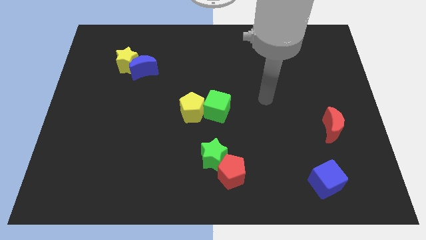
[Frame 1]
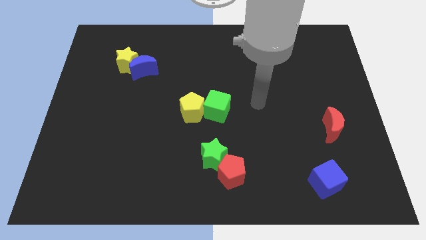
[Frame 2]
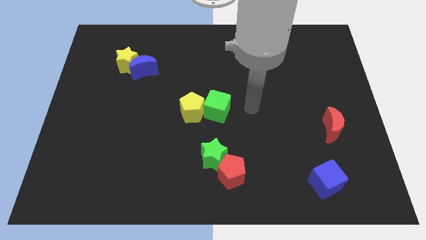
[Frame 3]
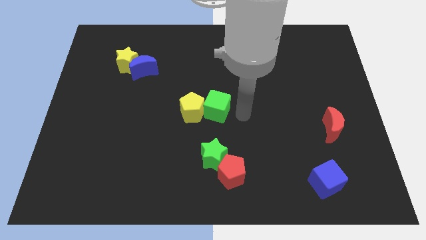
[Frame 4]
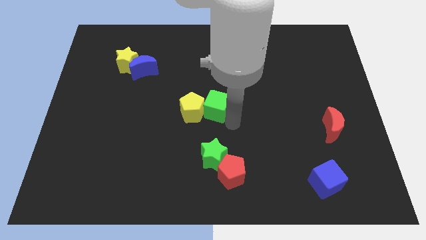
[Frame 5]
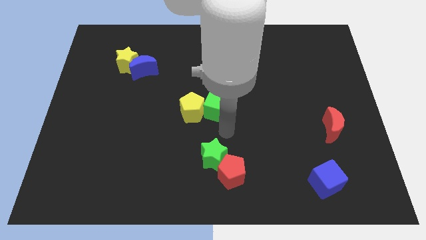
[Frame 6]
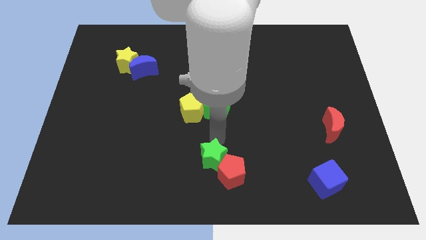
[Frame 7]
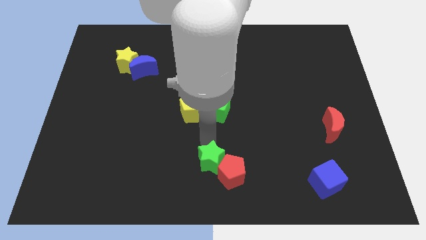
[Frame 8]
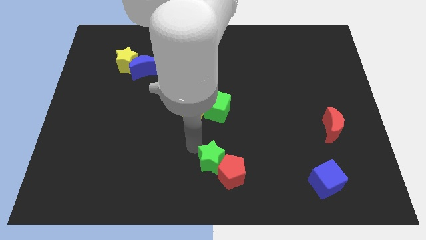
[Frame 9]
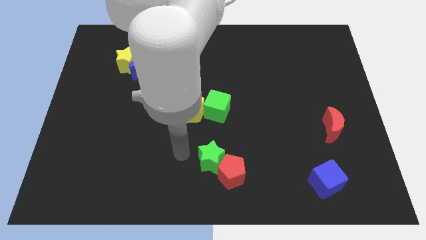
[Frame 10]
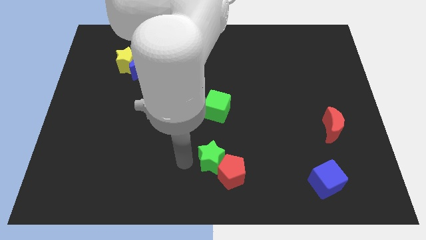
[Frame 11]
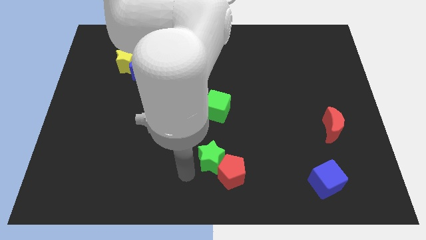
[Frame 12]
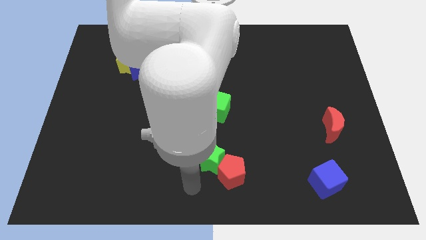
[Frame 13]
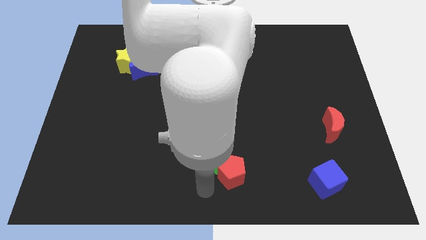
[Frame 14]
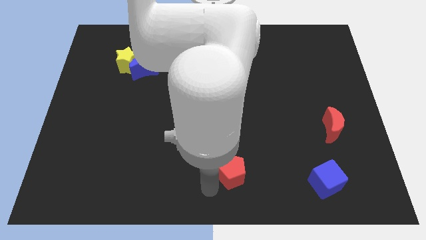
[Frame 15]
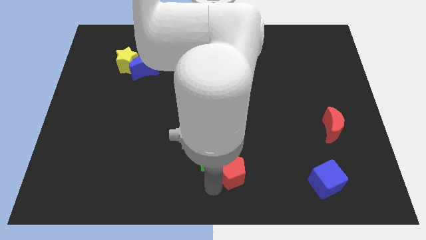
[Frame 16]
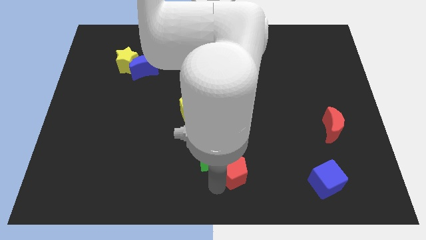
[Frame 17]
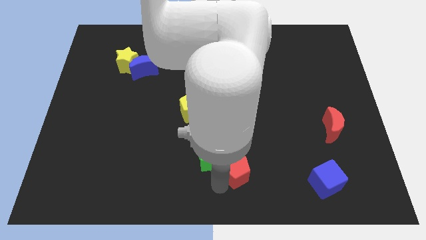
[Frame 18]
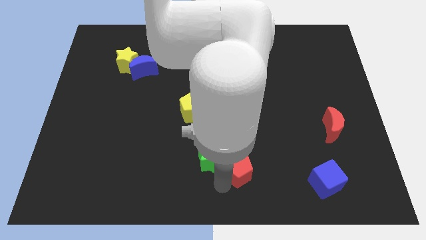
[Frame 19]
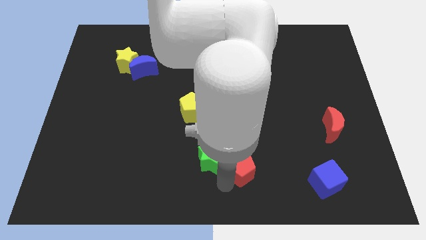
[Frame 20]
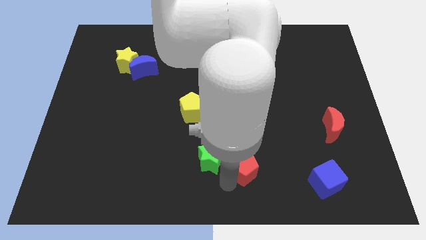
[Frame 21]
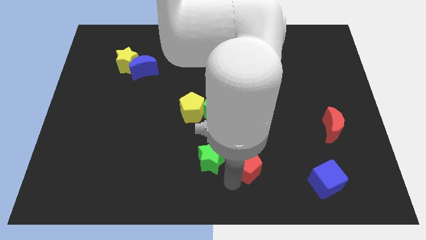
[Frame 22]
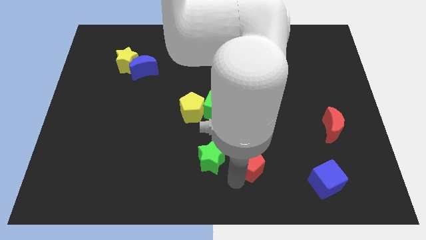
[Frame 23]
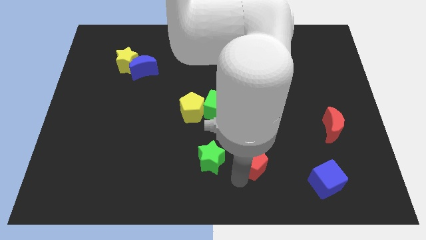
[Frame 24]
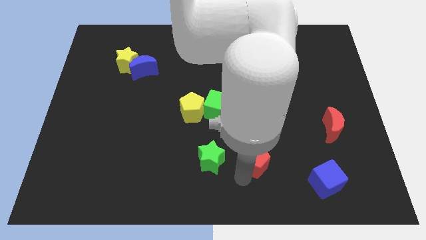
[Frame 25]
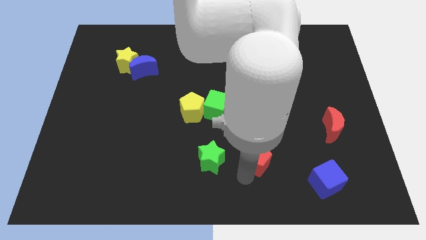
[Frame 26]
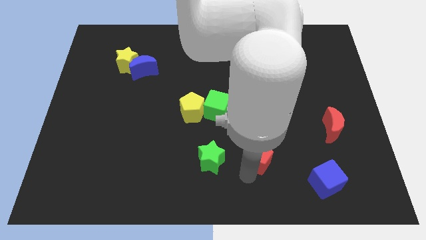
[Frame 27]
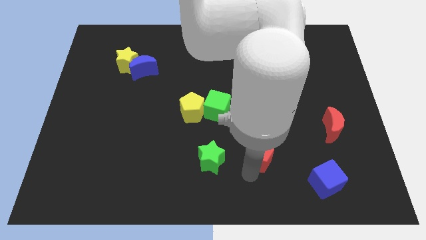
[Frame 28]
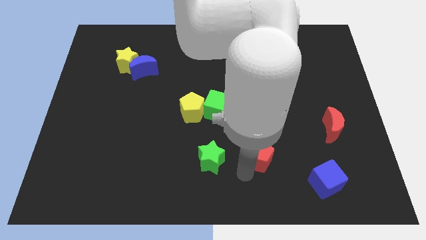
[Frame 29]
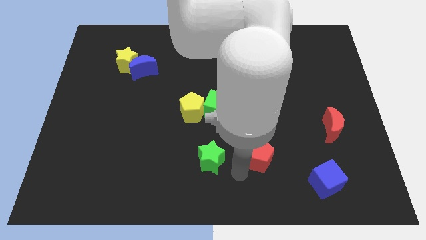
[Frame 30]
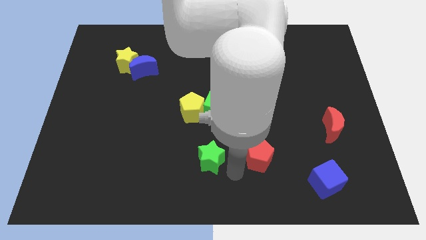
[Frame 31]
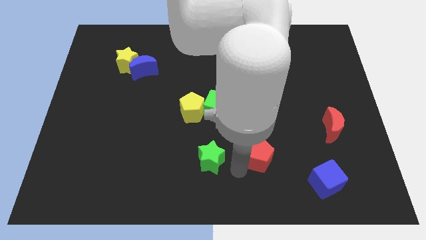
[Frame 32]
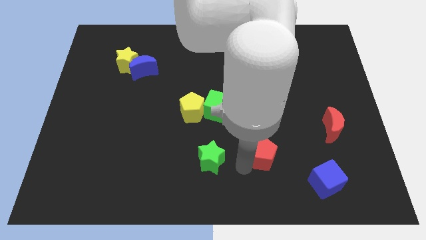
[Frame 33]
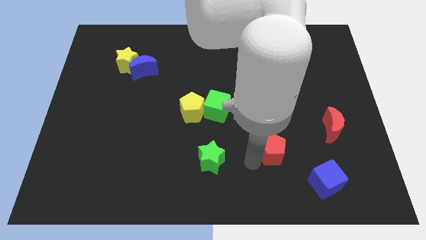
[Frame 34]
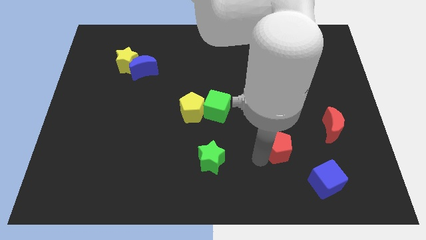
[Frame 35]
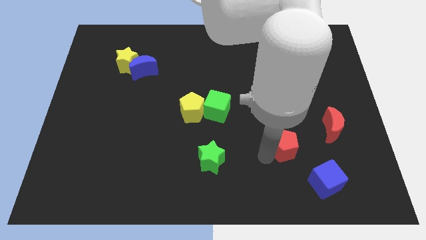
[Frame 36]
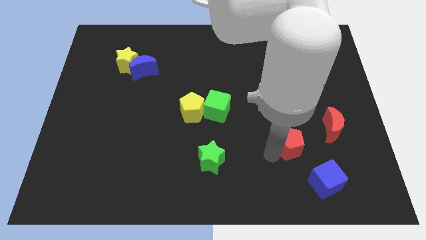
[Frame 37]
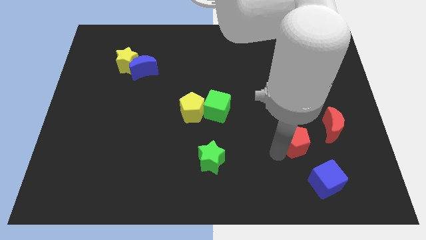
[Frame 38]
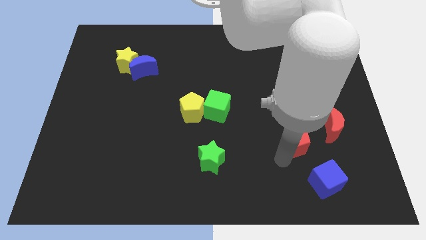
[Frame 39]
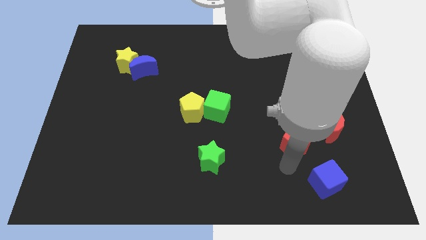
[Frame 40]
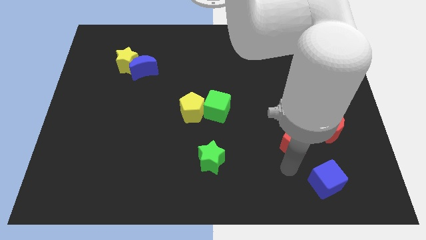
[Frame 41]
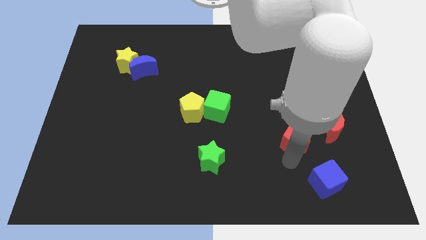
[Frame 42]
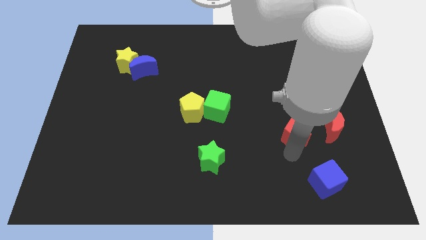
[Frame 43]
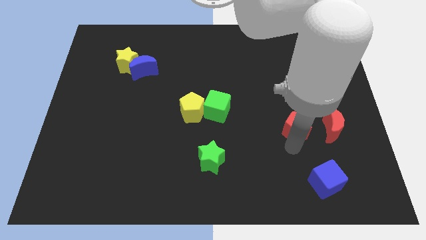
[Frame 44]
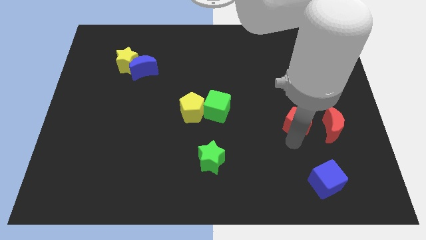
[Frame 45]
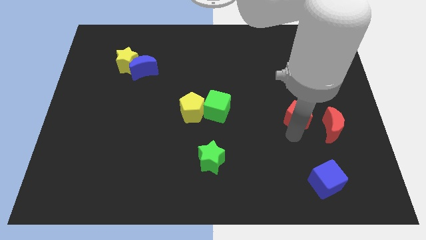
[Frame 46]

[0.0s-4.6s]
move the red pentagon upwards and right diagonally

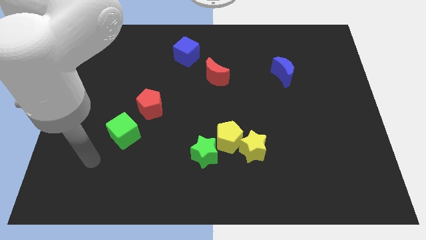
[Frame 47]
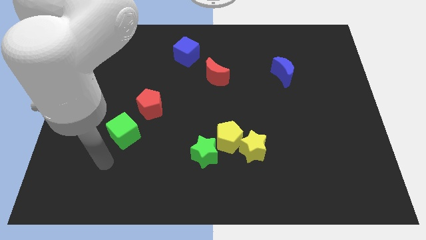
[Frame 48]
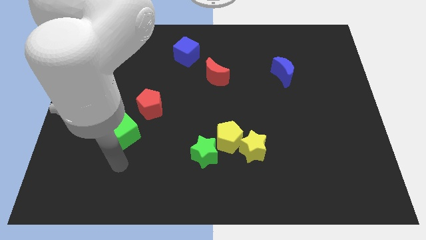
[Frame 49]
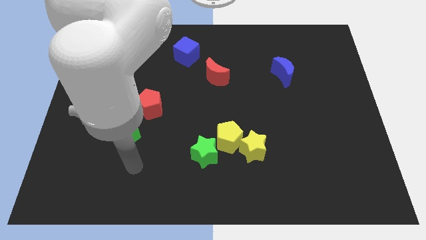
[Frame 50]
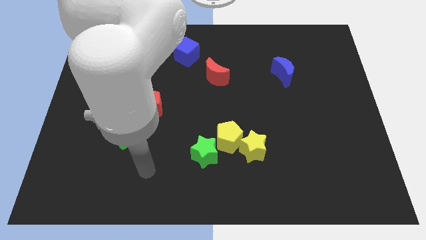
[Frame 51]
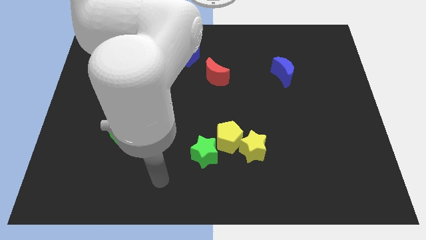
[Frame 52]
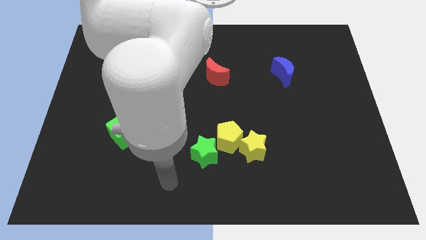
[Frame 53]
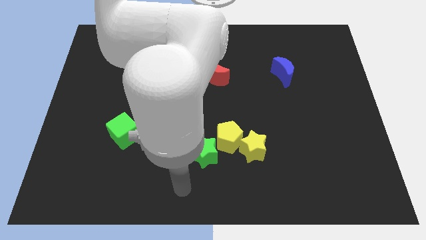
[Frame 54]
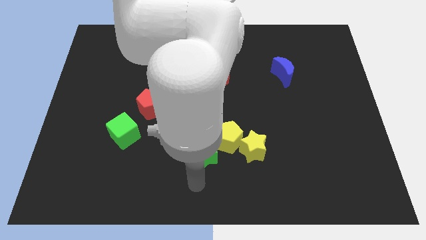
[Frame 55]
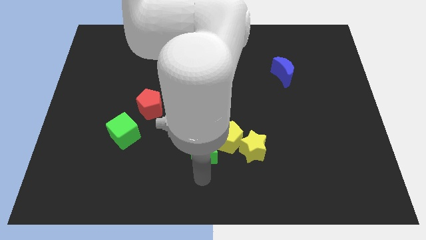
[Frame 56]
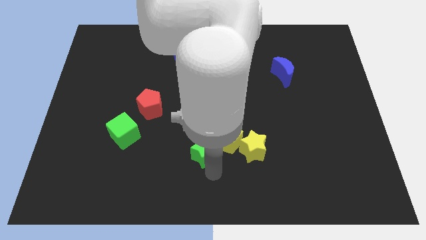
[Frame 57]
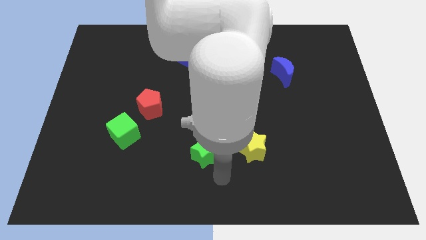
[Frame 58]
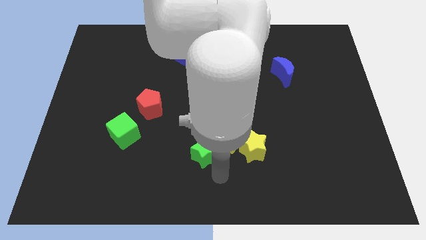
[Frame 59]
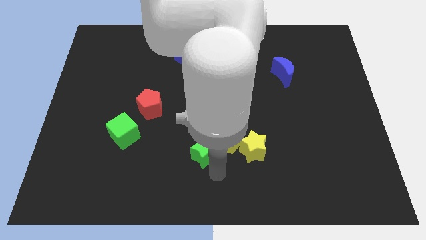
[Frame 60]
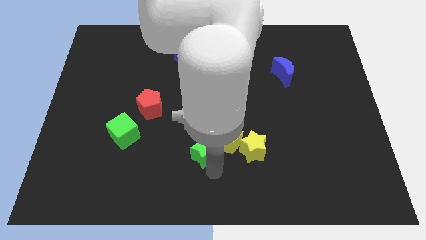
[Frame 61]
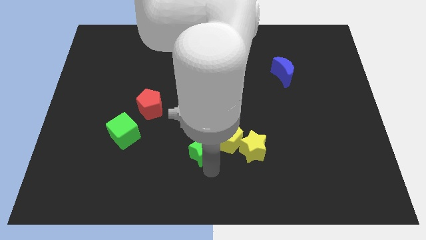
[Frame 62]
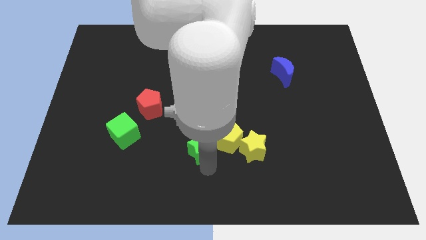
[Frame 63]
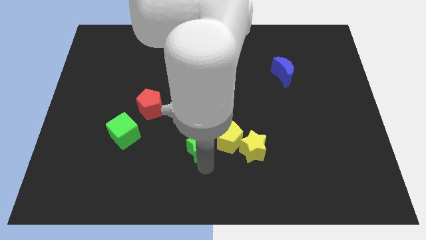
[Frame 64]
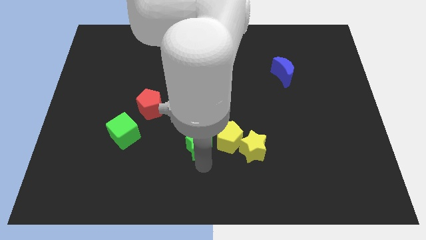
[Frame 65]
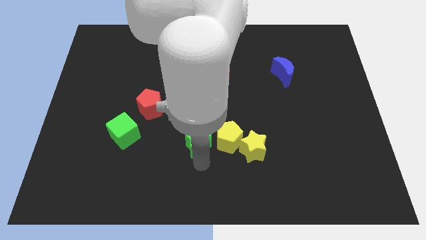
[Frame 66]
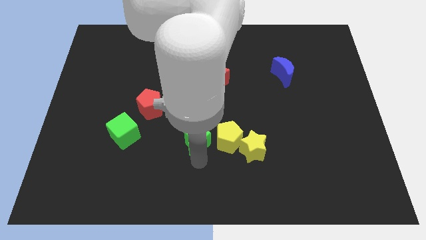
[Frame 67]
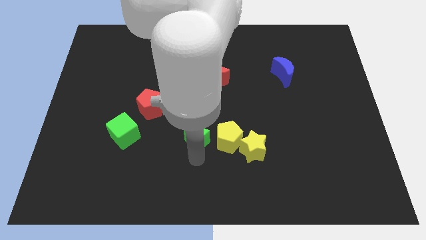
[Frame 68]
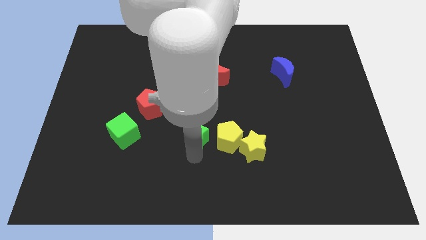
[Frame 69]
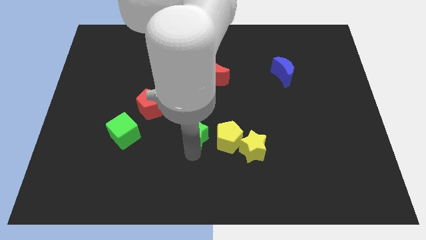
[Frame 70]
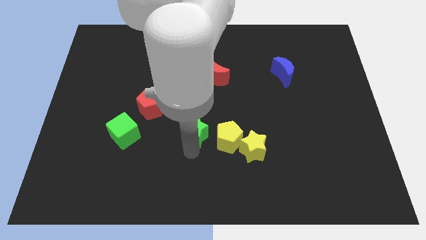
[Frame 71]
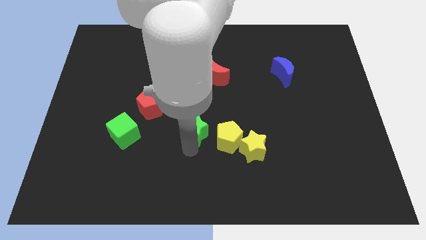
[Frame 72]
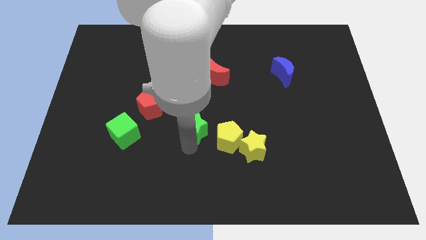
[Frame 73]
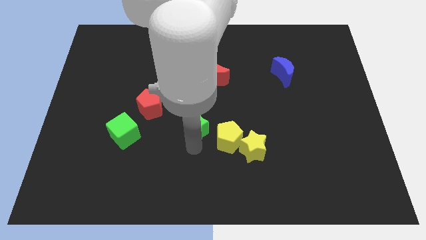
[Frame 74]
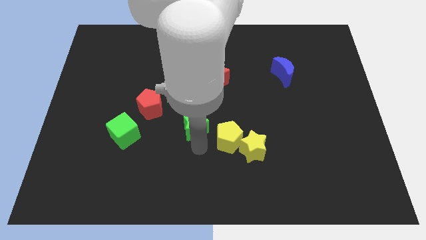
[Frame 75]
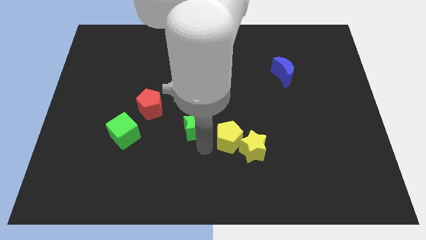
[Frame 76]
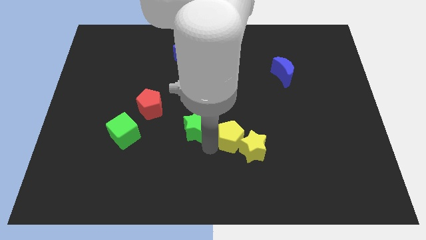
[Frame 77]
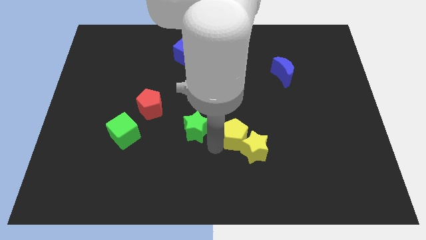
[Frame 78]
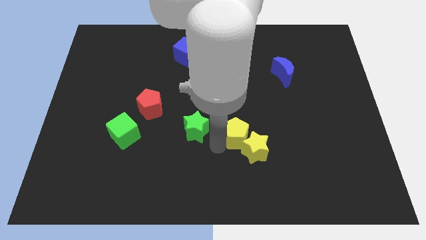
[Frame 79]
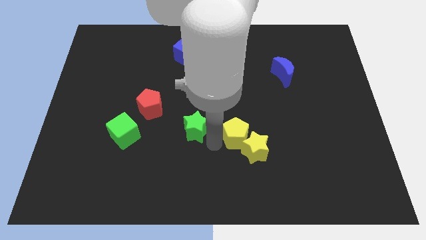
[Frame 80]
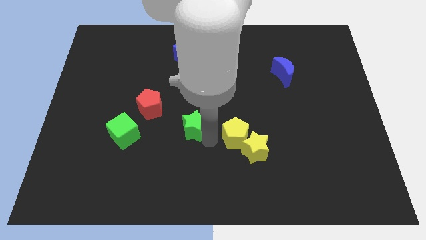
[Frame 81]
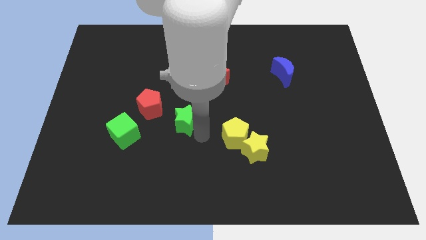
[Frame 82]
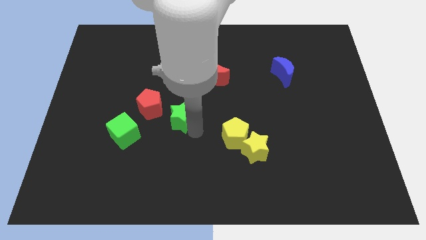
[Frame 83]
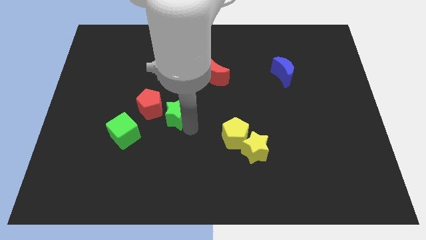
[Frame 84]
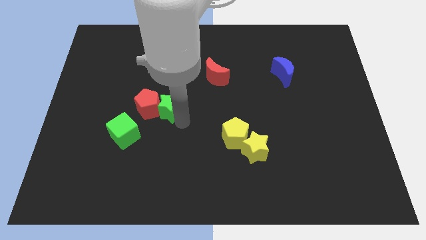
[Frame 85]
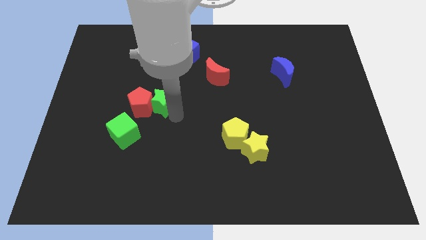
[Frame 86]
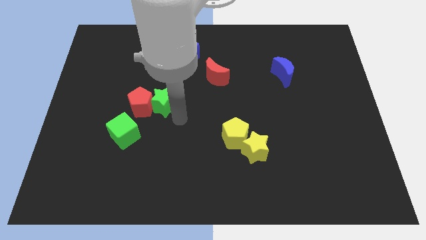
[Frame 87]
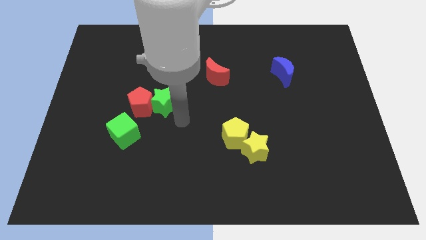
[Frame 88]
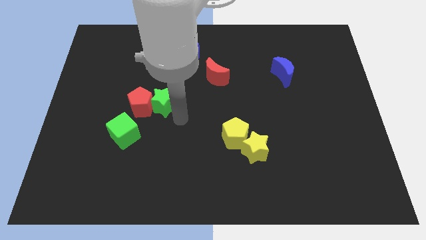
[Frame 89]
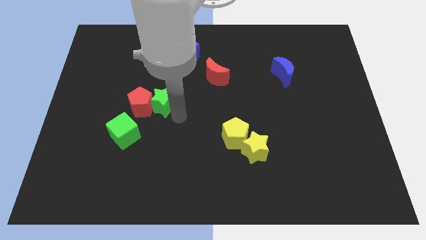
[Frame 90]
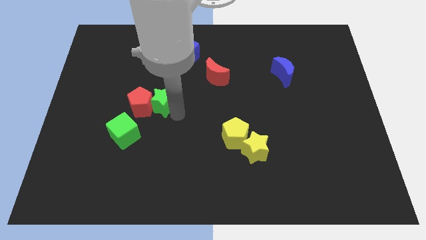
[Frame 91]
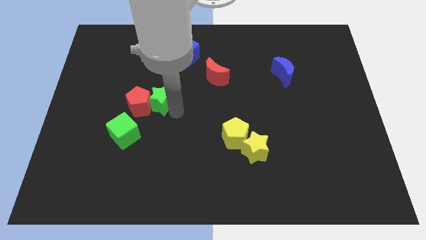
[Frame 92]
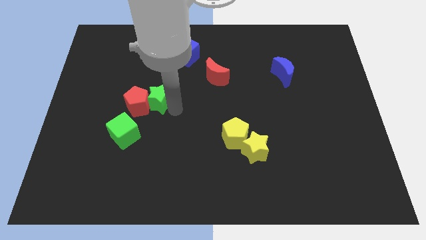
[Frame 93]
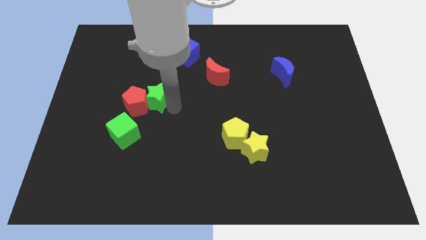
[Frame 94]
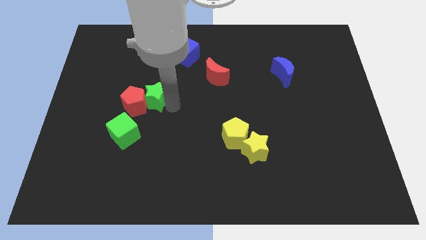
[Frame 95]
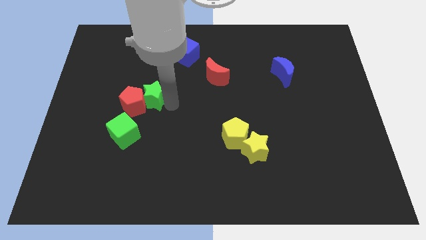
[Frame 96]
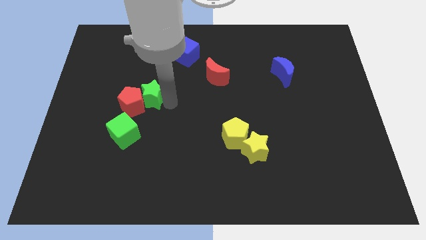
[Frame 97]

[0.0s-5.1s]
push the green star diagonally upwards and to the left
